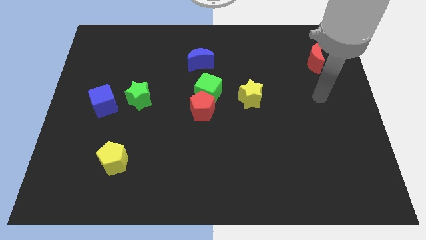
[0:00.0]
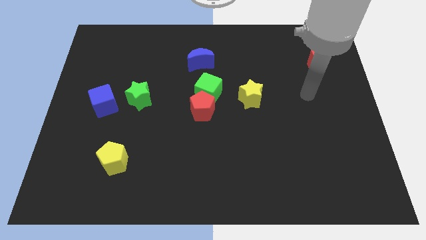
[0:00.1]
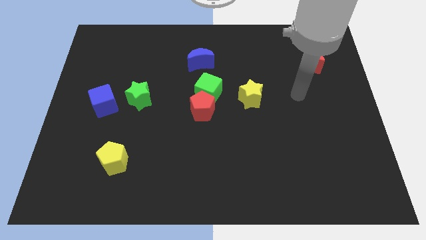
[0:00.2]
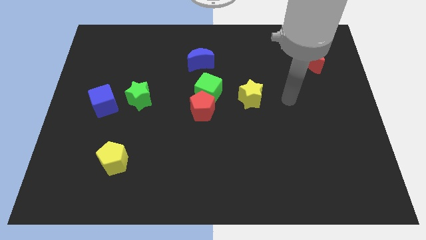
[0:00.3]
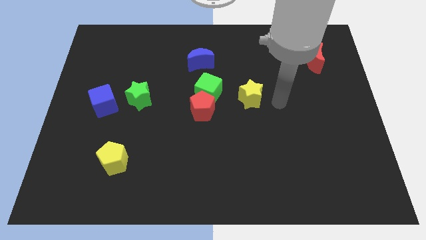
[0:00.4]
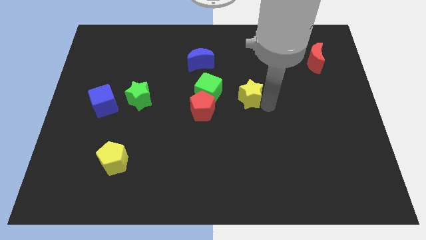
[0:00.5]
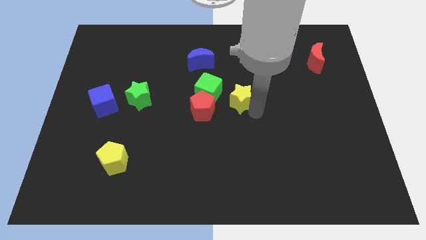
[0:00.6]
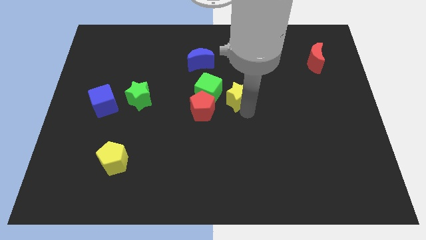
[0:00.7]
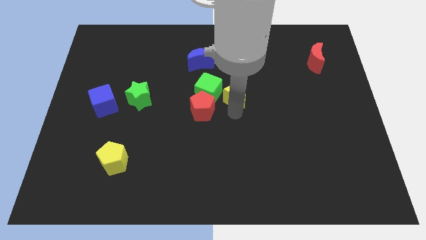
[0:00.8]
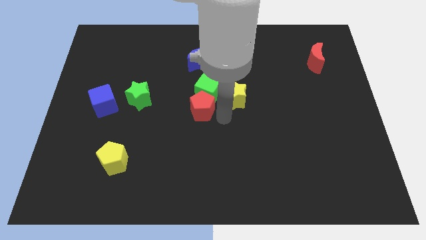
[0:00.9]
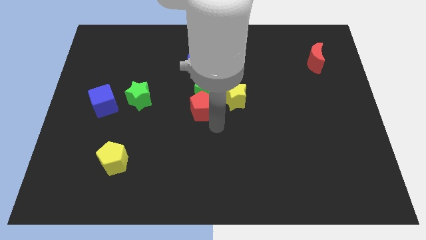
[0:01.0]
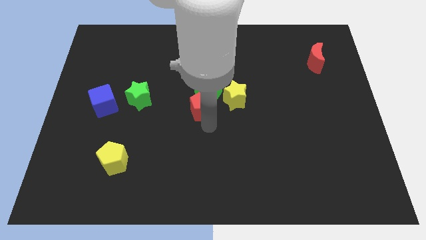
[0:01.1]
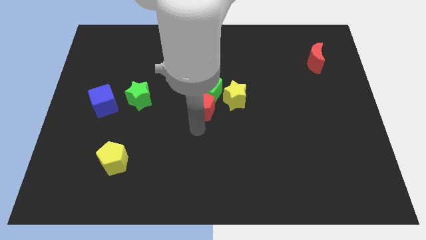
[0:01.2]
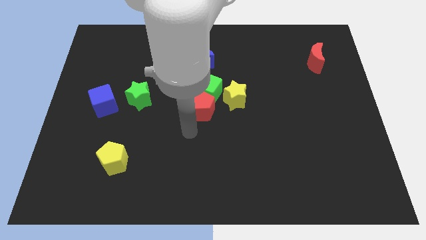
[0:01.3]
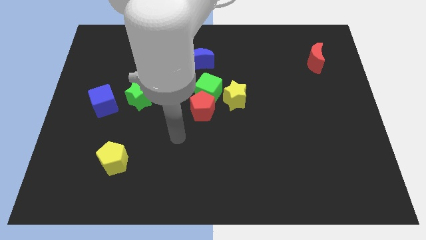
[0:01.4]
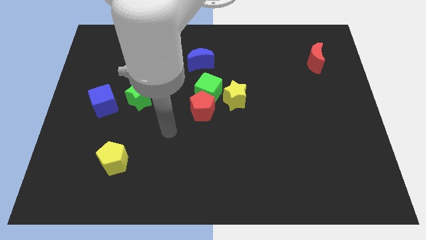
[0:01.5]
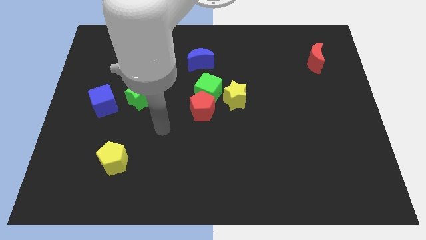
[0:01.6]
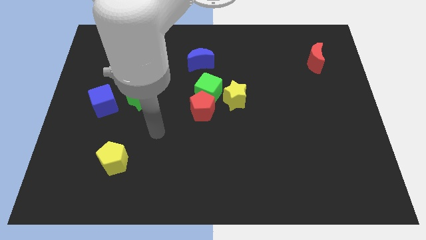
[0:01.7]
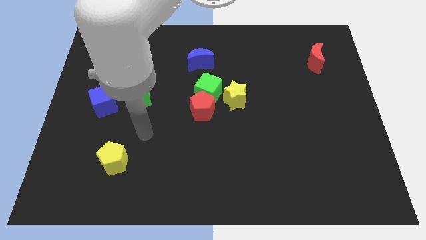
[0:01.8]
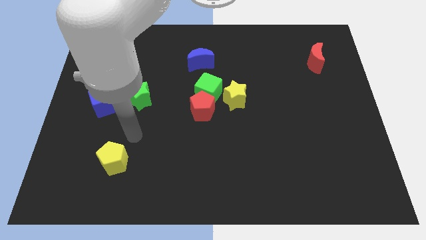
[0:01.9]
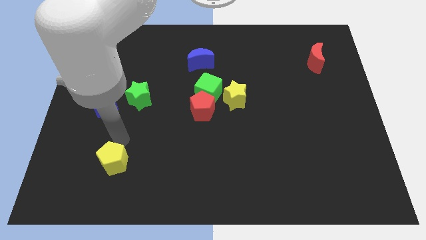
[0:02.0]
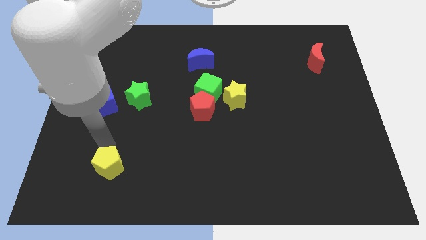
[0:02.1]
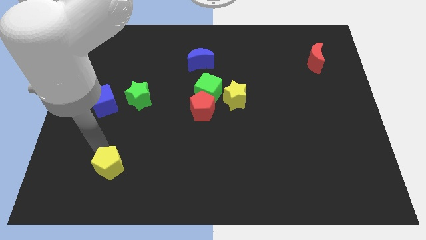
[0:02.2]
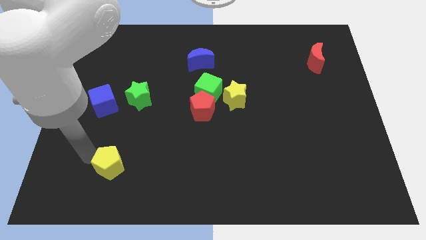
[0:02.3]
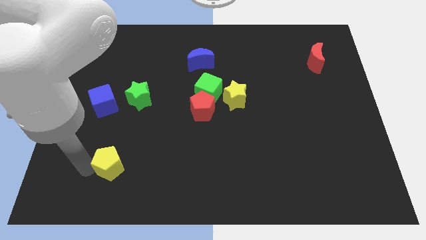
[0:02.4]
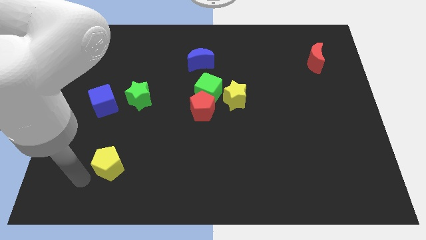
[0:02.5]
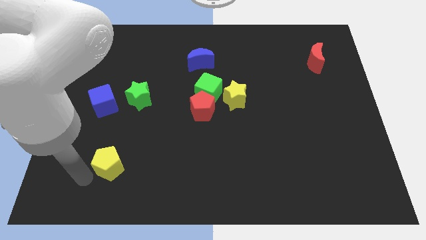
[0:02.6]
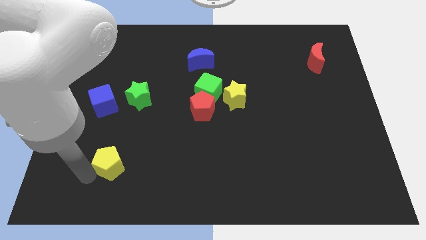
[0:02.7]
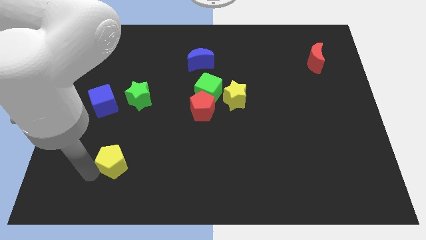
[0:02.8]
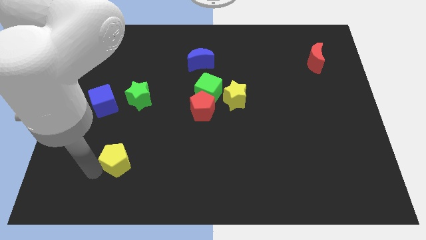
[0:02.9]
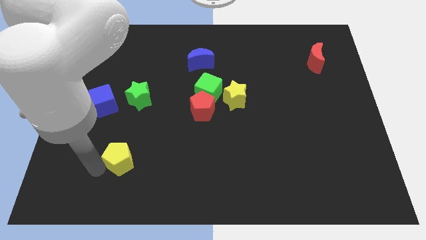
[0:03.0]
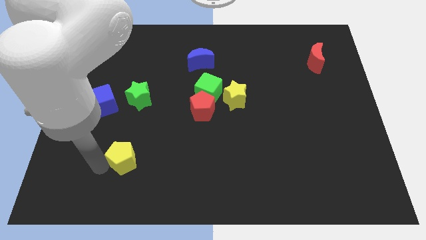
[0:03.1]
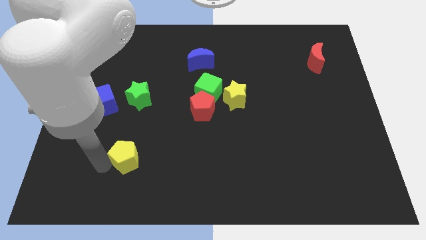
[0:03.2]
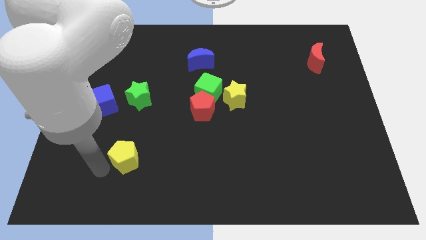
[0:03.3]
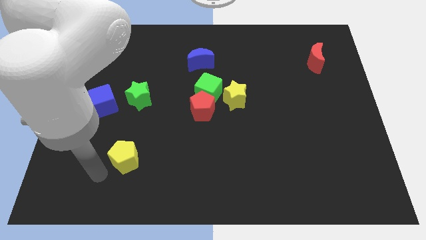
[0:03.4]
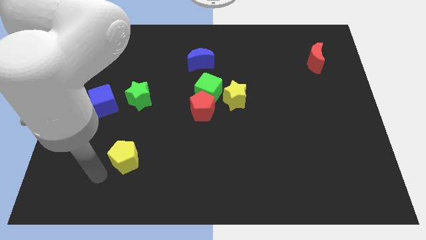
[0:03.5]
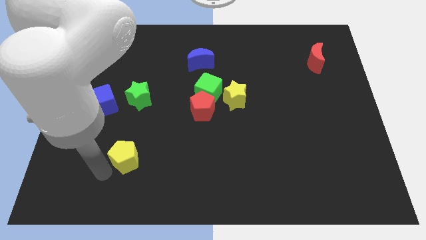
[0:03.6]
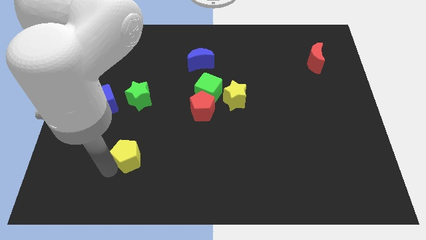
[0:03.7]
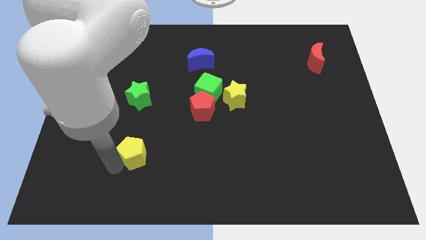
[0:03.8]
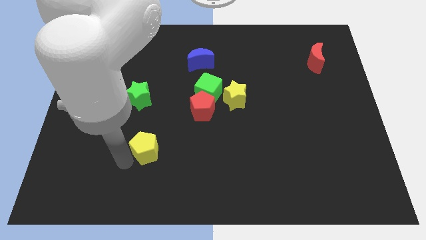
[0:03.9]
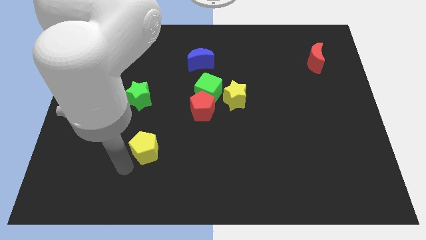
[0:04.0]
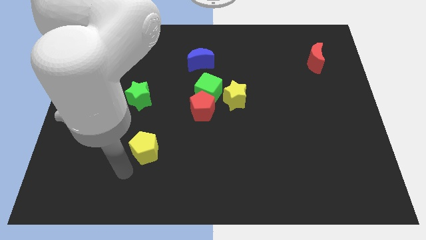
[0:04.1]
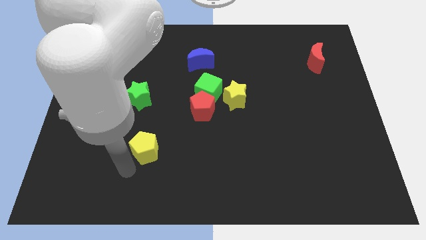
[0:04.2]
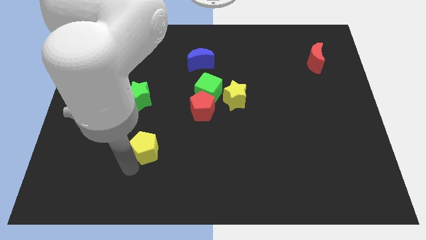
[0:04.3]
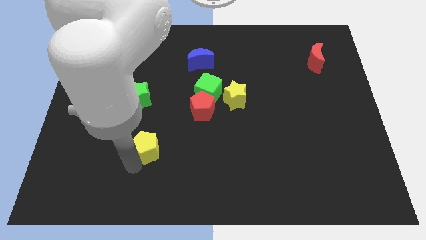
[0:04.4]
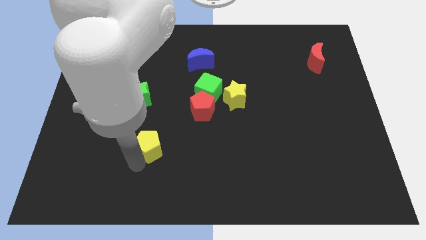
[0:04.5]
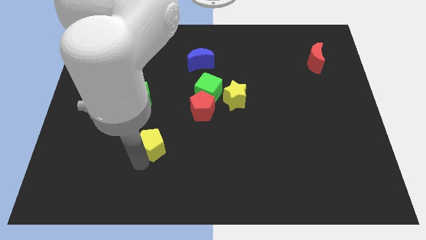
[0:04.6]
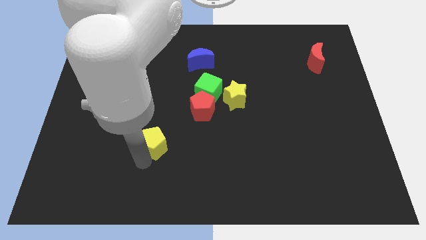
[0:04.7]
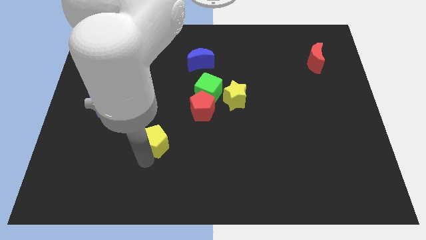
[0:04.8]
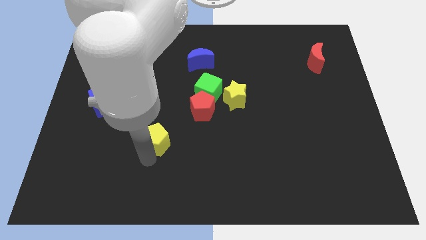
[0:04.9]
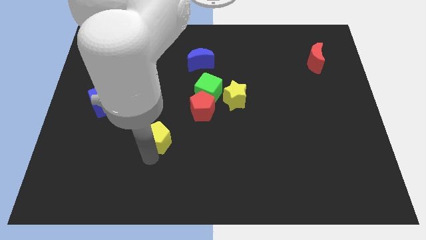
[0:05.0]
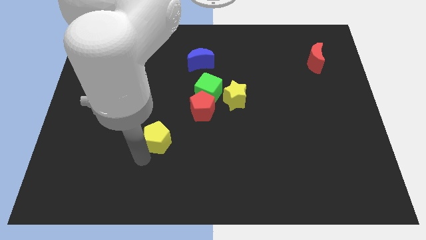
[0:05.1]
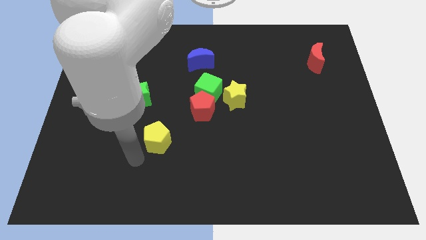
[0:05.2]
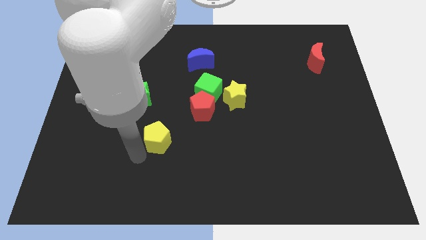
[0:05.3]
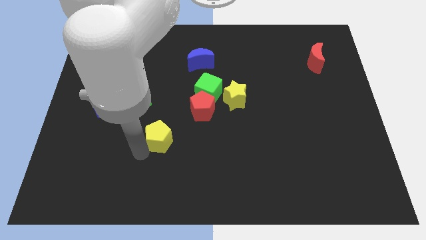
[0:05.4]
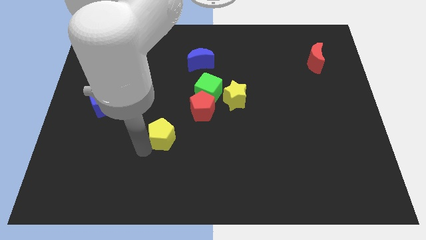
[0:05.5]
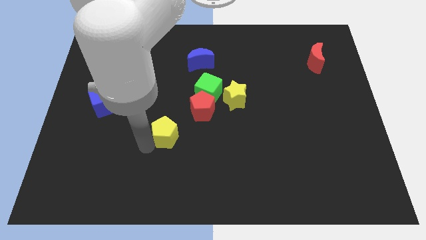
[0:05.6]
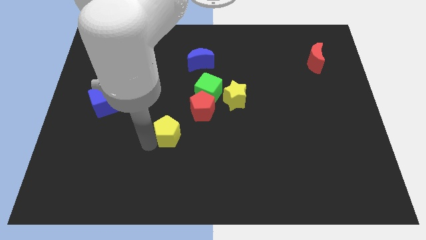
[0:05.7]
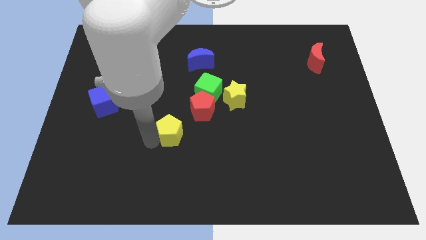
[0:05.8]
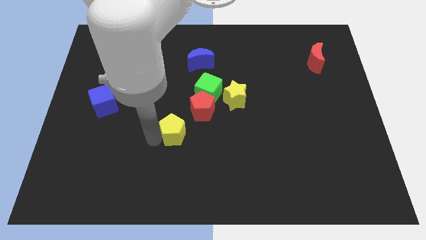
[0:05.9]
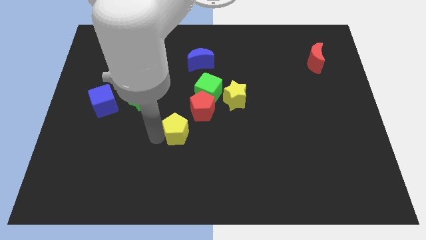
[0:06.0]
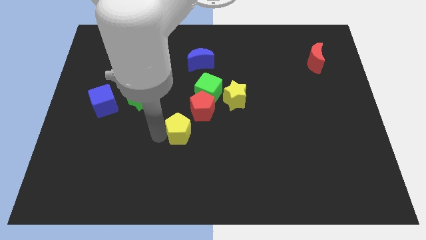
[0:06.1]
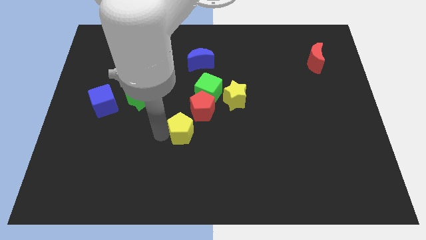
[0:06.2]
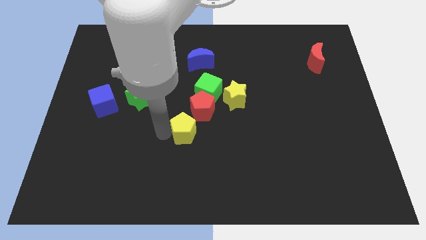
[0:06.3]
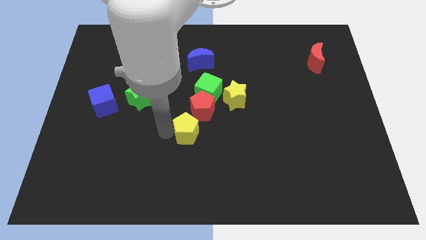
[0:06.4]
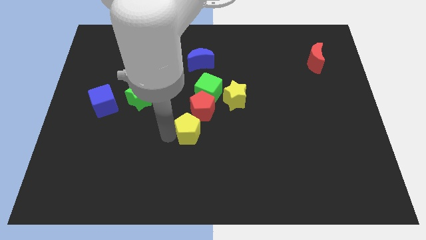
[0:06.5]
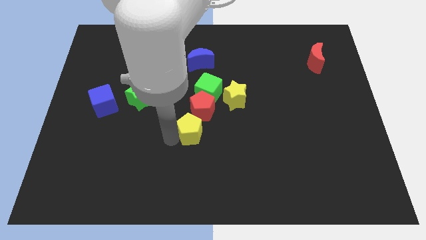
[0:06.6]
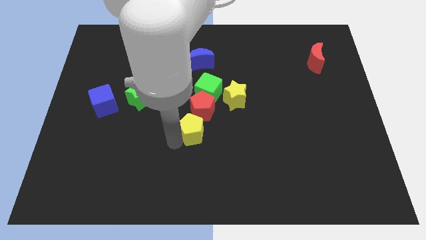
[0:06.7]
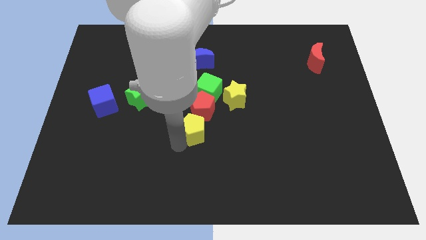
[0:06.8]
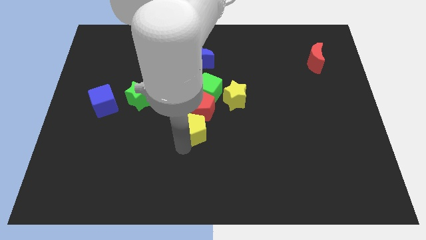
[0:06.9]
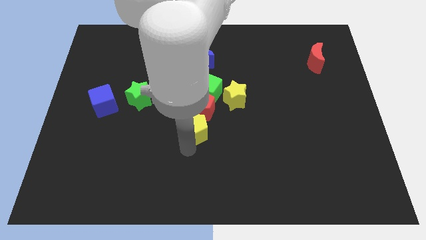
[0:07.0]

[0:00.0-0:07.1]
move the yellow pentagon towards the red pentagon

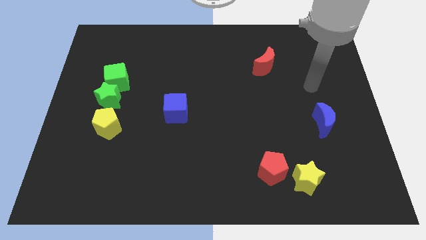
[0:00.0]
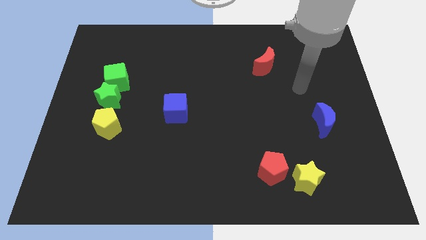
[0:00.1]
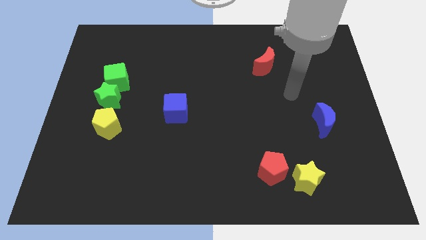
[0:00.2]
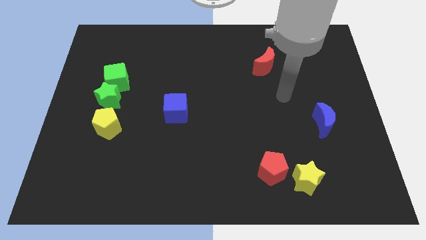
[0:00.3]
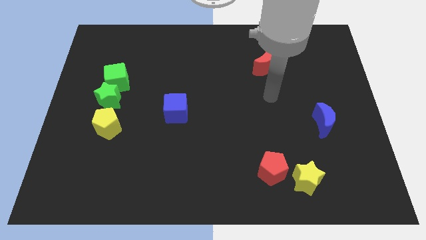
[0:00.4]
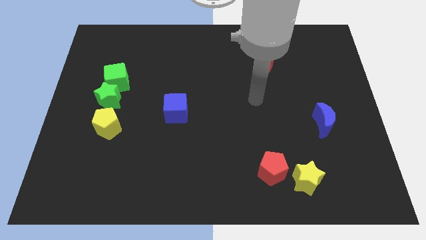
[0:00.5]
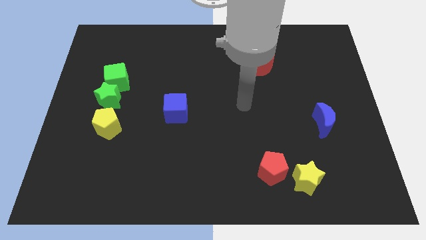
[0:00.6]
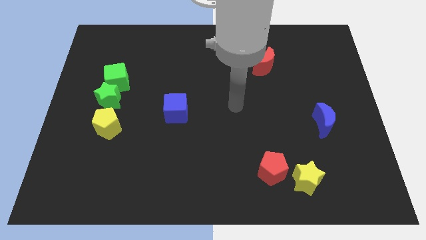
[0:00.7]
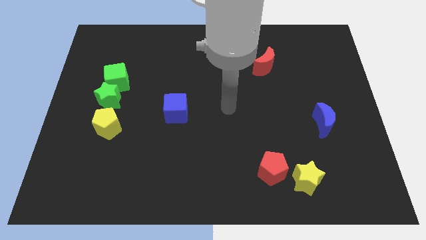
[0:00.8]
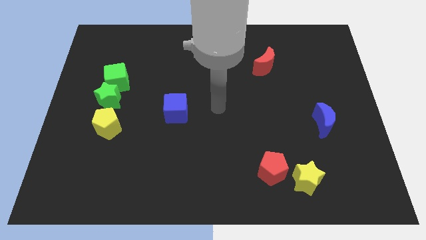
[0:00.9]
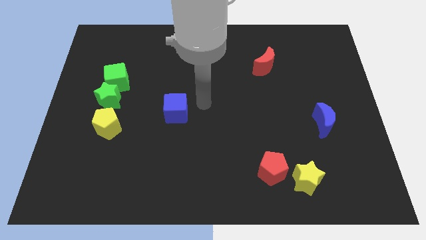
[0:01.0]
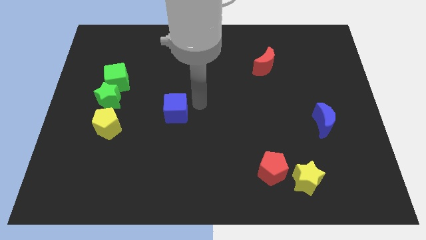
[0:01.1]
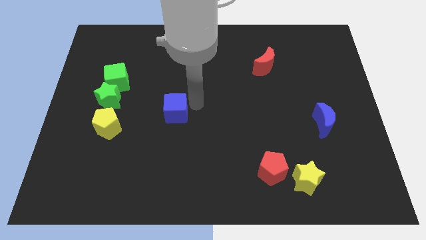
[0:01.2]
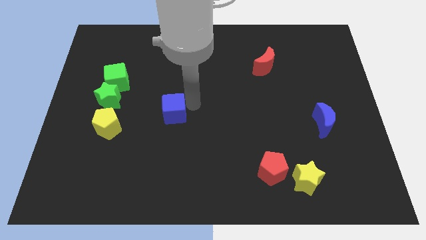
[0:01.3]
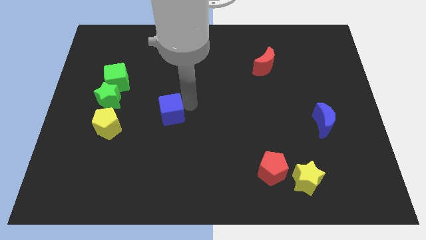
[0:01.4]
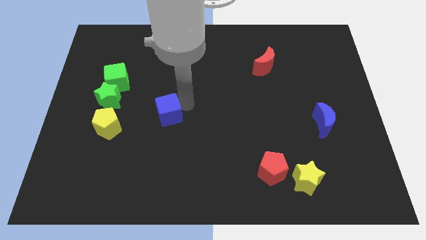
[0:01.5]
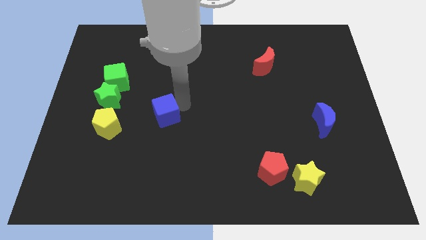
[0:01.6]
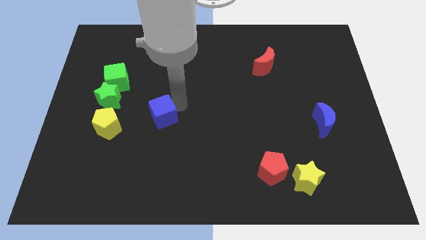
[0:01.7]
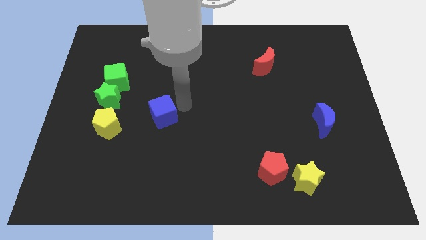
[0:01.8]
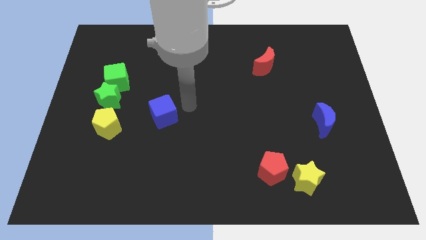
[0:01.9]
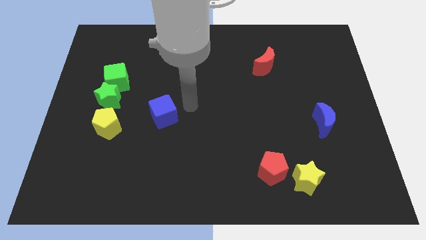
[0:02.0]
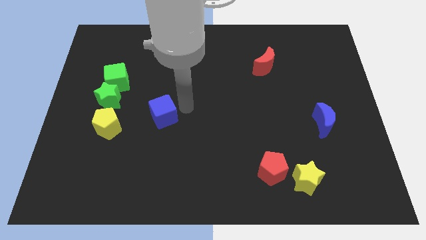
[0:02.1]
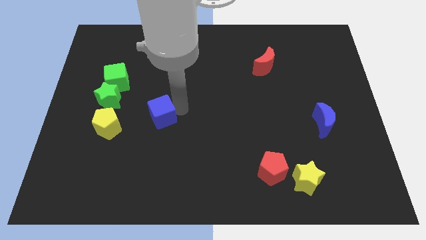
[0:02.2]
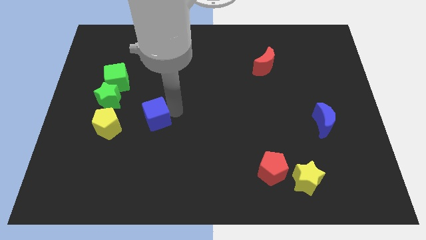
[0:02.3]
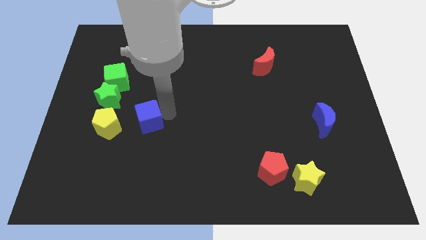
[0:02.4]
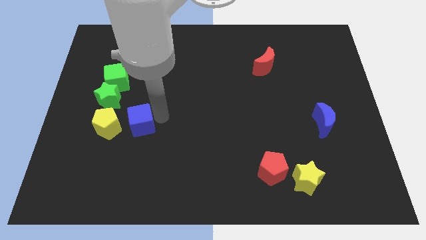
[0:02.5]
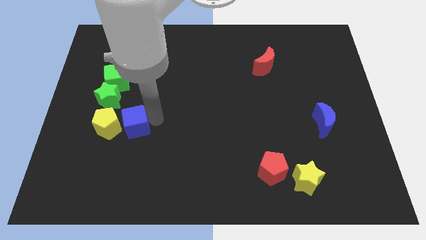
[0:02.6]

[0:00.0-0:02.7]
slide the blue cube towards the yellow pentagon
